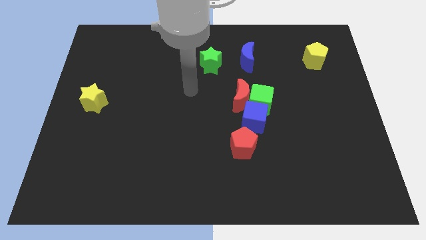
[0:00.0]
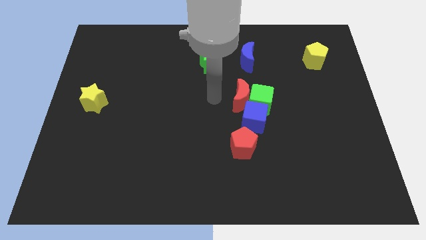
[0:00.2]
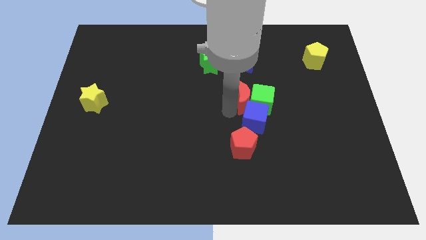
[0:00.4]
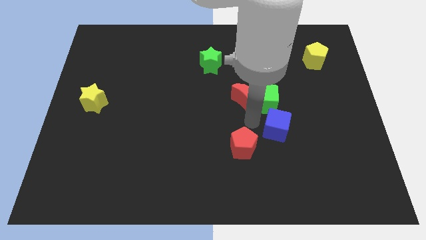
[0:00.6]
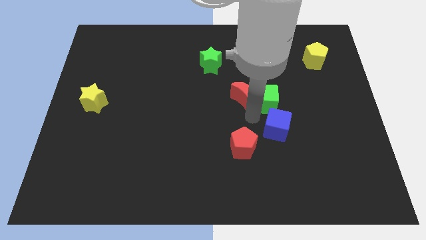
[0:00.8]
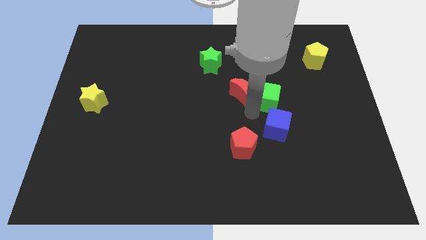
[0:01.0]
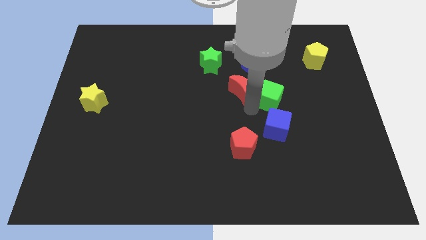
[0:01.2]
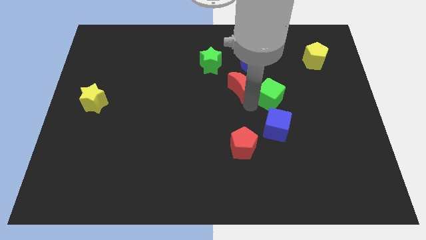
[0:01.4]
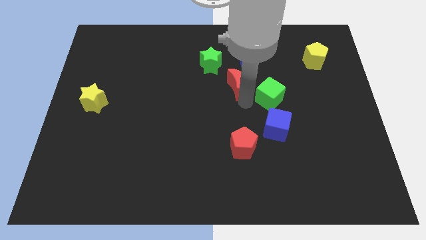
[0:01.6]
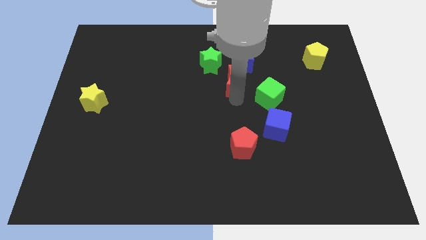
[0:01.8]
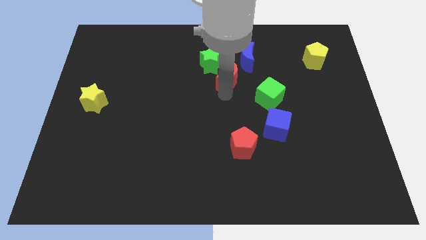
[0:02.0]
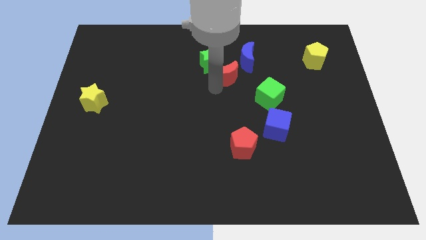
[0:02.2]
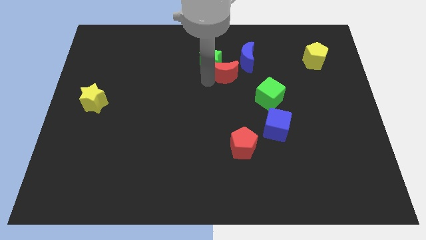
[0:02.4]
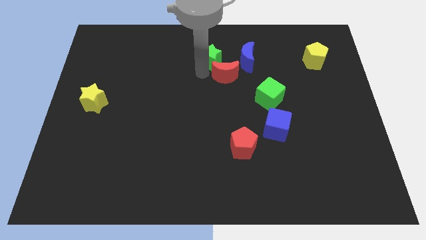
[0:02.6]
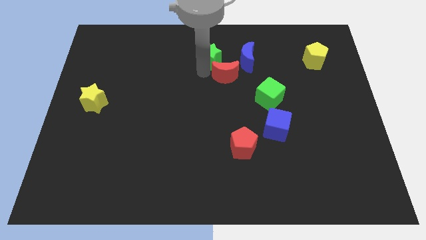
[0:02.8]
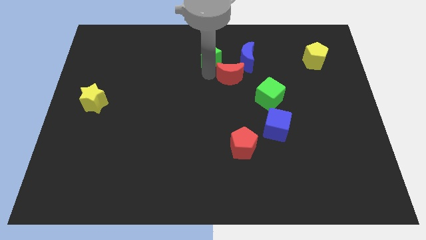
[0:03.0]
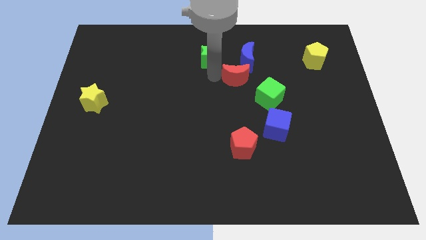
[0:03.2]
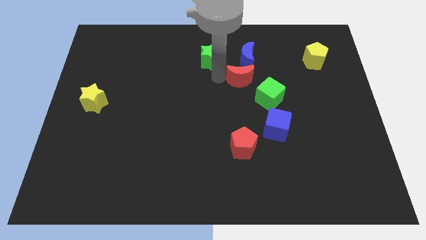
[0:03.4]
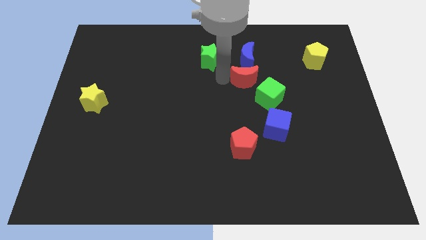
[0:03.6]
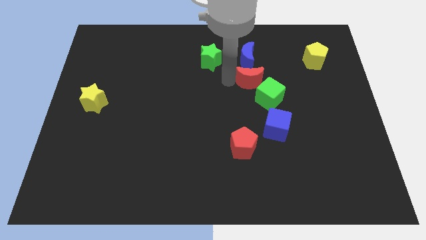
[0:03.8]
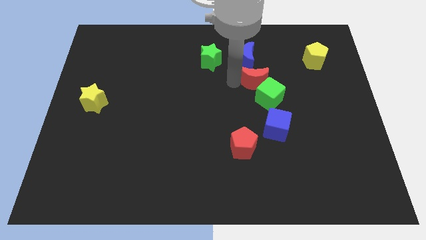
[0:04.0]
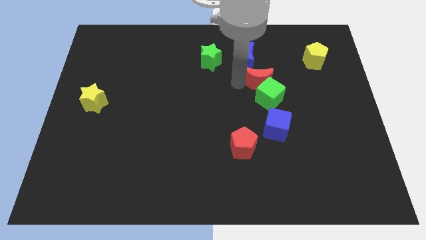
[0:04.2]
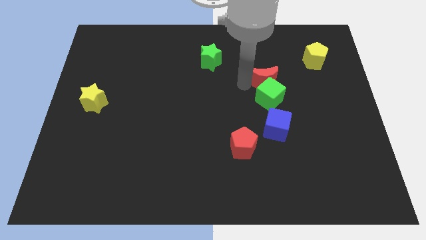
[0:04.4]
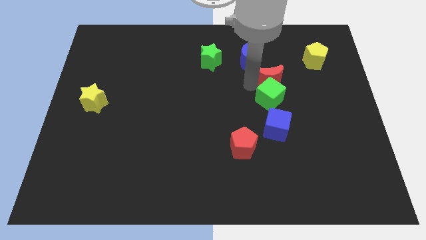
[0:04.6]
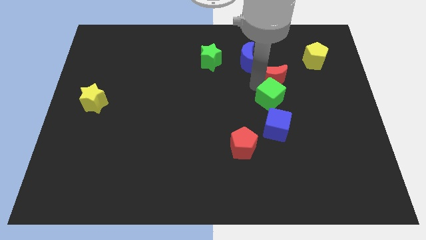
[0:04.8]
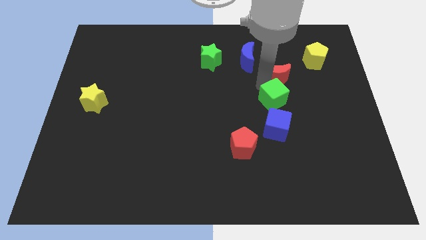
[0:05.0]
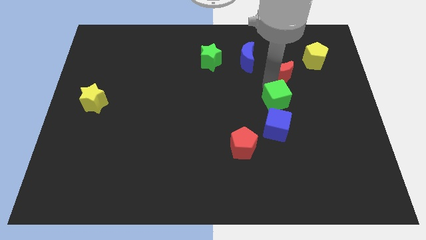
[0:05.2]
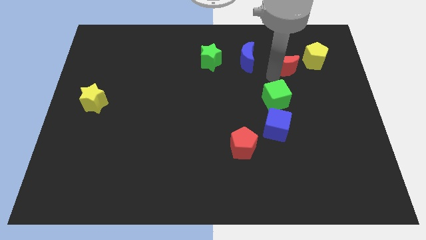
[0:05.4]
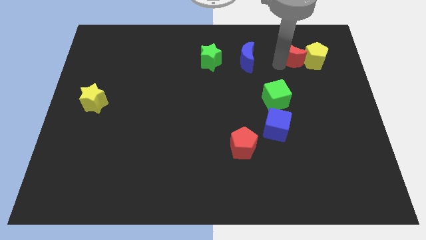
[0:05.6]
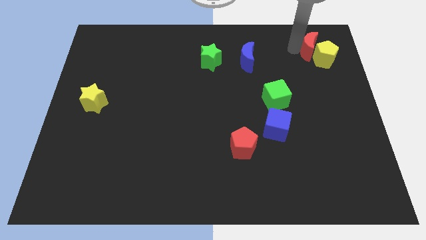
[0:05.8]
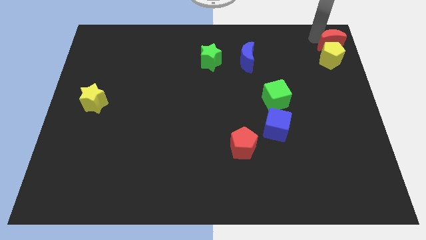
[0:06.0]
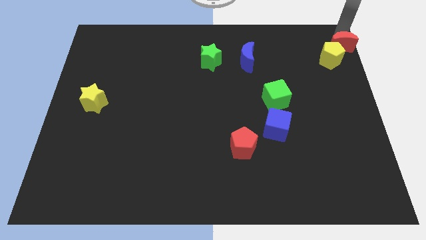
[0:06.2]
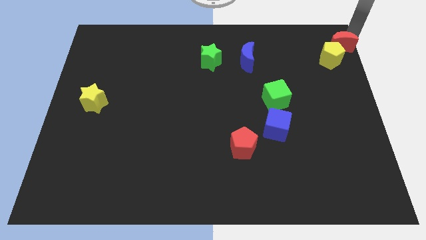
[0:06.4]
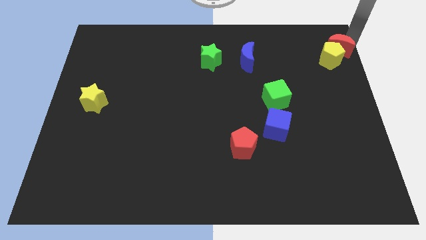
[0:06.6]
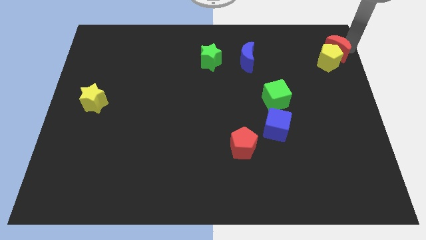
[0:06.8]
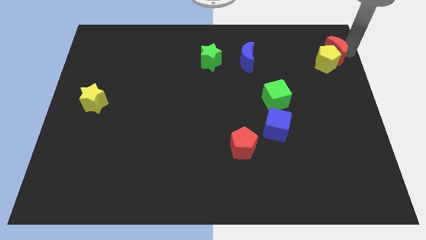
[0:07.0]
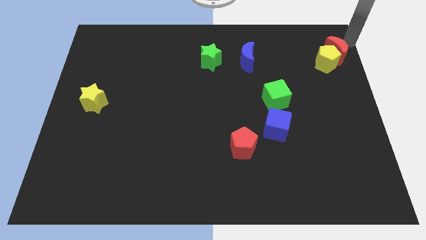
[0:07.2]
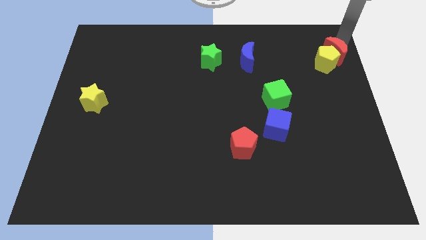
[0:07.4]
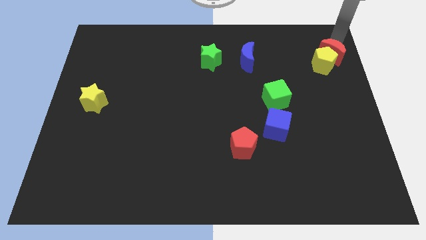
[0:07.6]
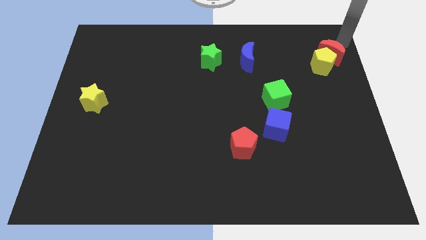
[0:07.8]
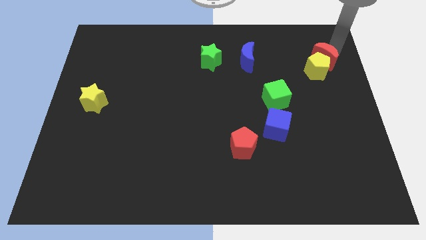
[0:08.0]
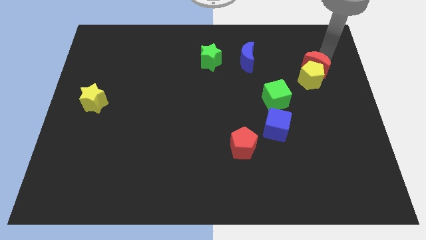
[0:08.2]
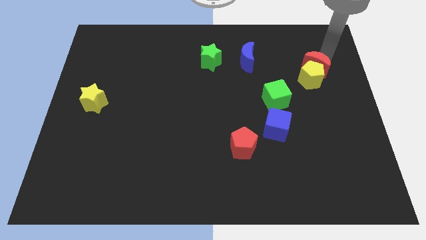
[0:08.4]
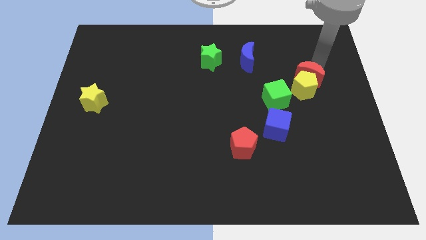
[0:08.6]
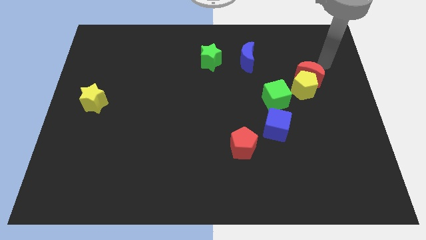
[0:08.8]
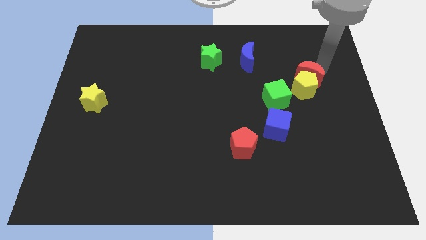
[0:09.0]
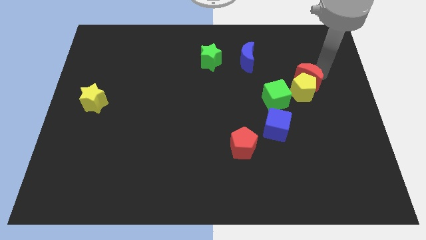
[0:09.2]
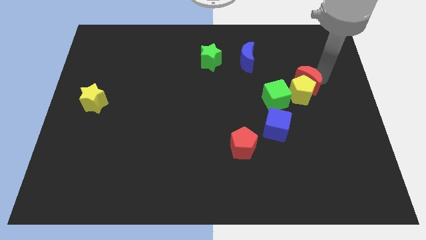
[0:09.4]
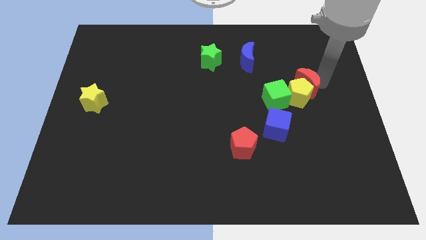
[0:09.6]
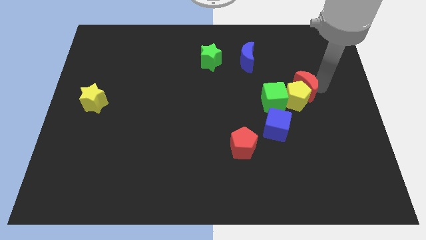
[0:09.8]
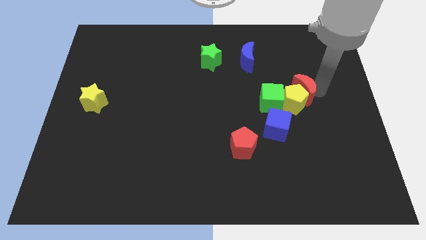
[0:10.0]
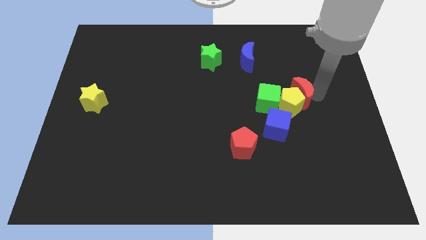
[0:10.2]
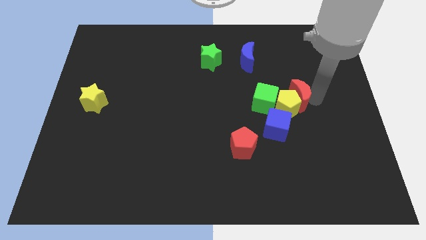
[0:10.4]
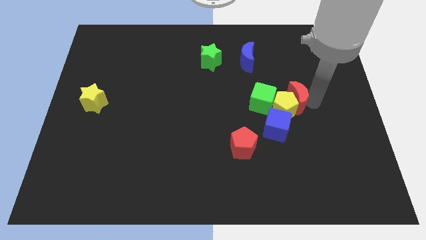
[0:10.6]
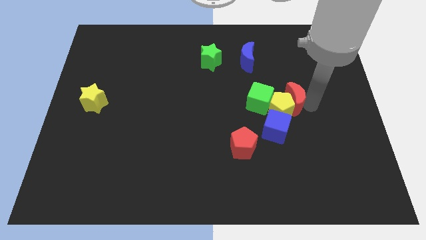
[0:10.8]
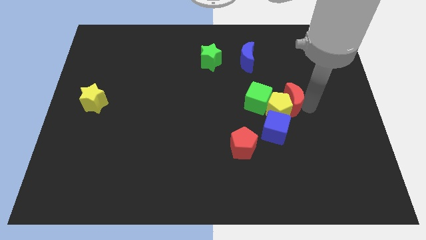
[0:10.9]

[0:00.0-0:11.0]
push the red moon a little bit downwards and right diagonally

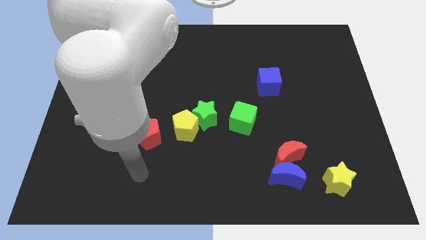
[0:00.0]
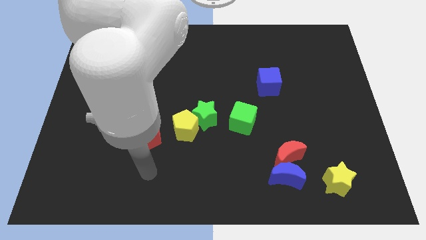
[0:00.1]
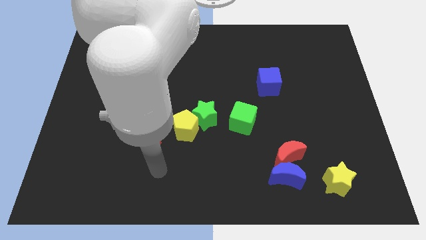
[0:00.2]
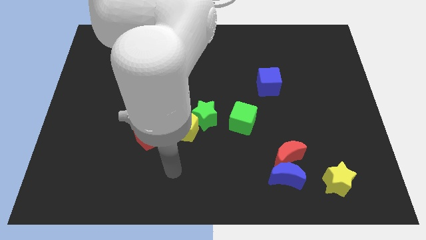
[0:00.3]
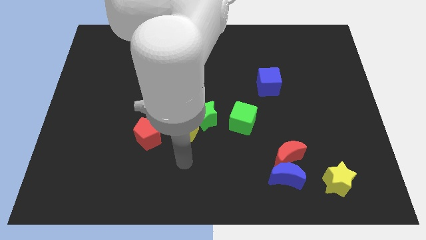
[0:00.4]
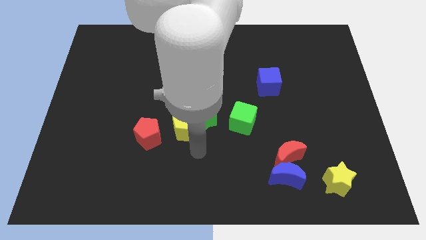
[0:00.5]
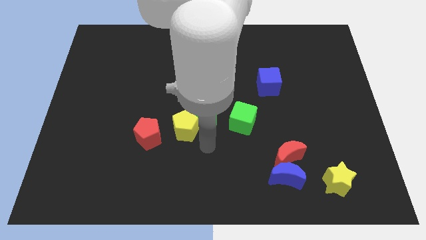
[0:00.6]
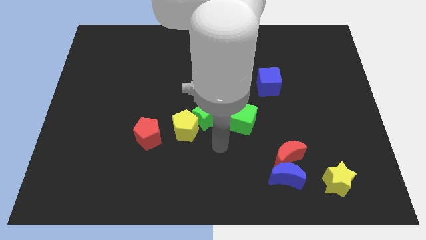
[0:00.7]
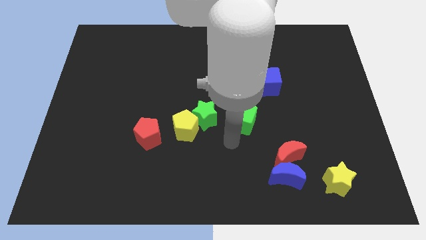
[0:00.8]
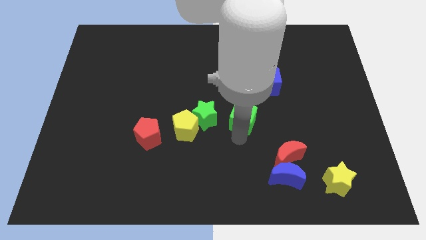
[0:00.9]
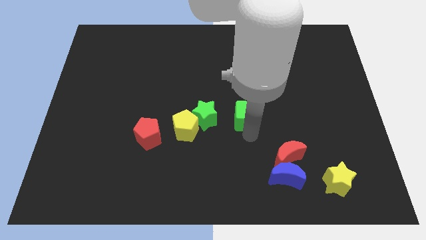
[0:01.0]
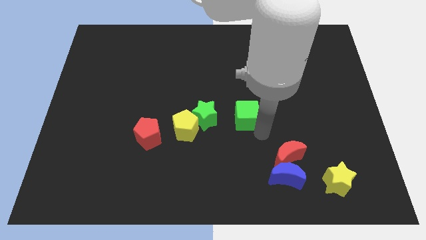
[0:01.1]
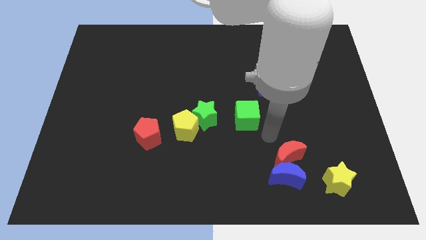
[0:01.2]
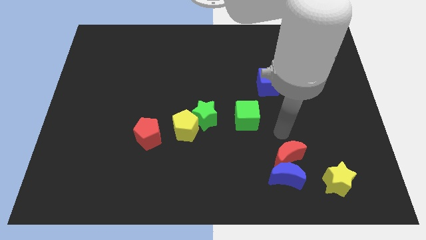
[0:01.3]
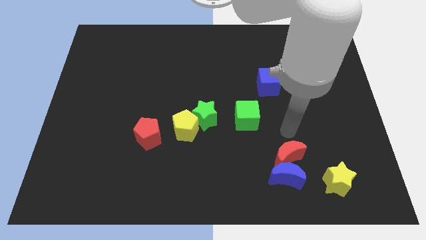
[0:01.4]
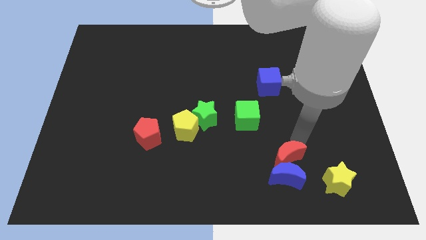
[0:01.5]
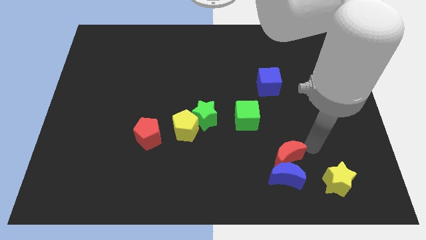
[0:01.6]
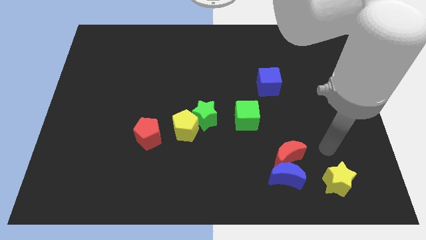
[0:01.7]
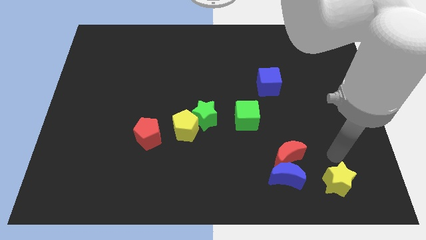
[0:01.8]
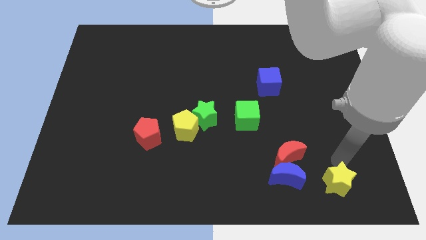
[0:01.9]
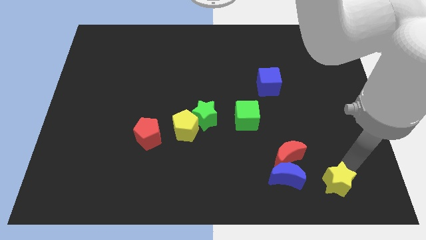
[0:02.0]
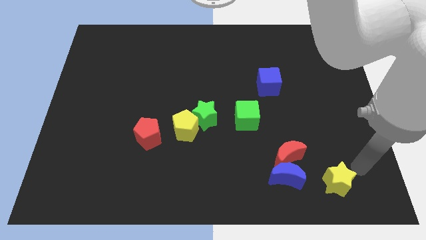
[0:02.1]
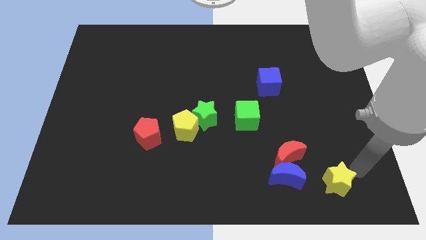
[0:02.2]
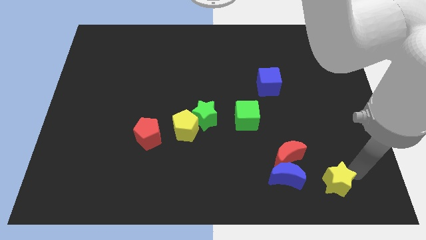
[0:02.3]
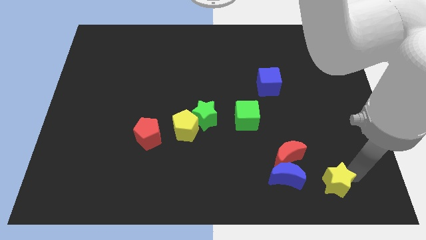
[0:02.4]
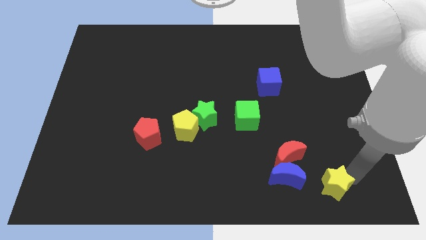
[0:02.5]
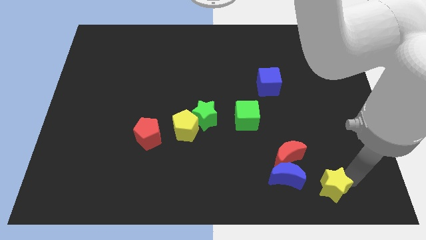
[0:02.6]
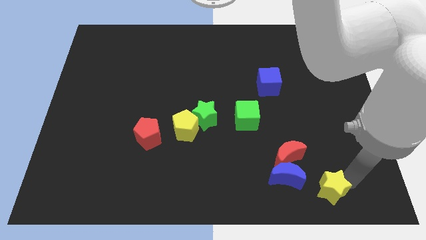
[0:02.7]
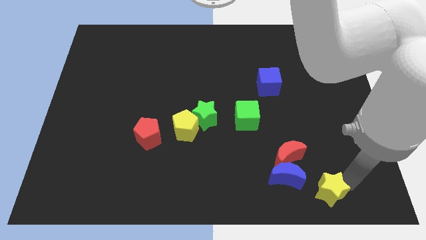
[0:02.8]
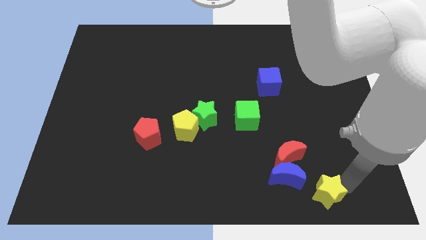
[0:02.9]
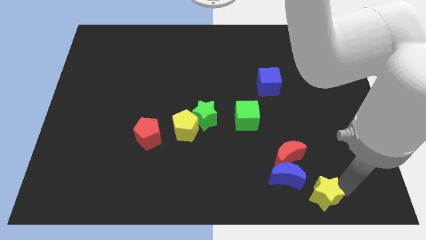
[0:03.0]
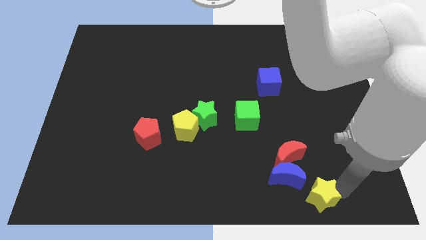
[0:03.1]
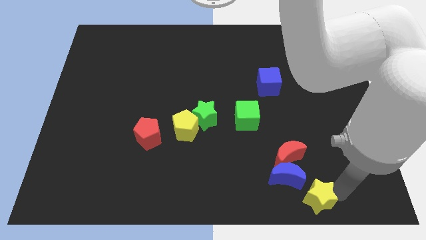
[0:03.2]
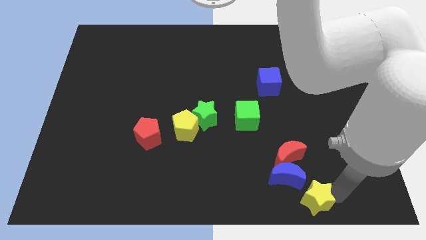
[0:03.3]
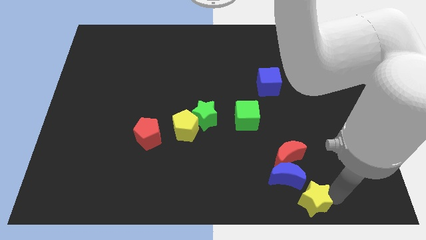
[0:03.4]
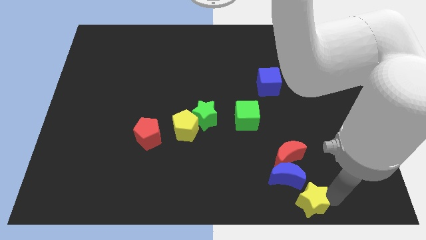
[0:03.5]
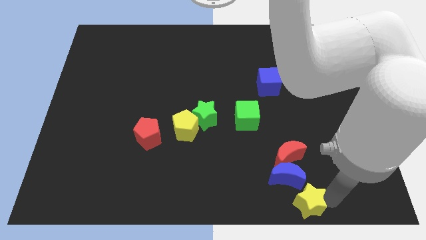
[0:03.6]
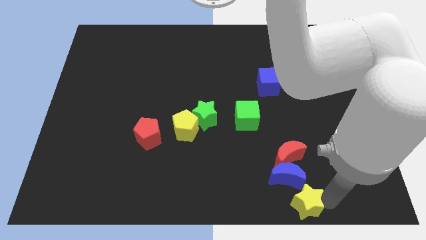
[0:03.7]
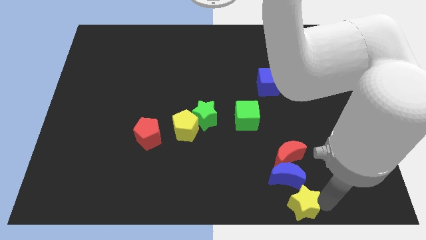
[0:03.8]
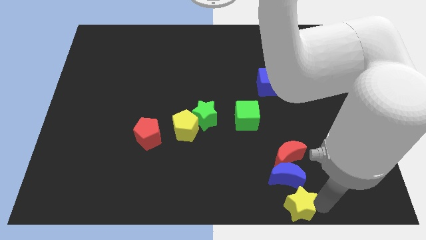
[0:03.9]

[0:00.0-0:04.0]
slightly move the yellow star left
